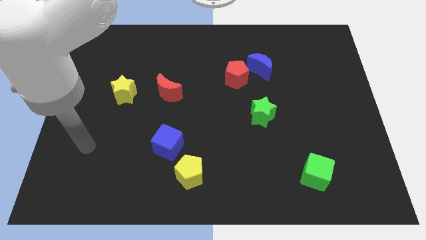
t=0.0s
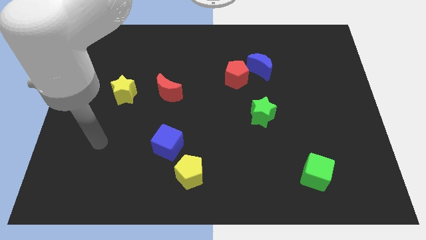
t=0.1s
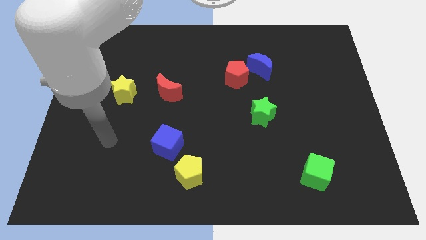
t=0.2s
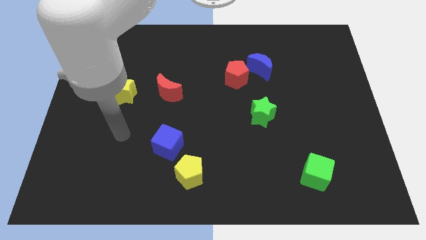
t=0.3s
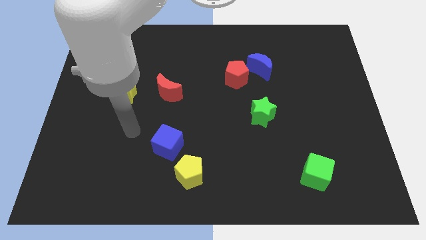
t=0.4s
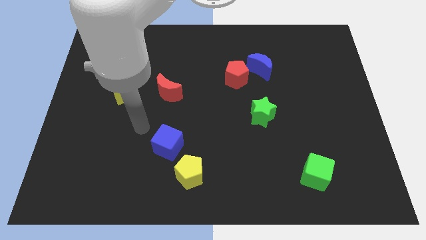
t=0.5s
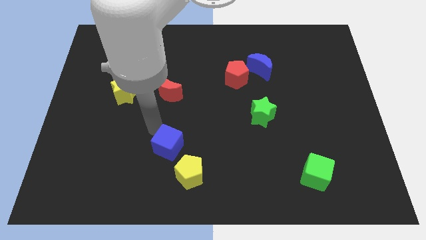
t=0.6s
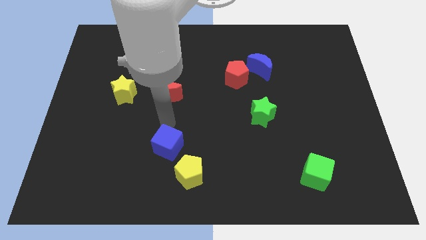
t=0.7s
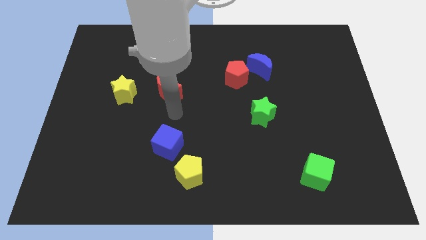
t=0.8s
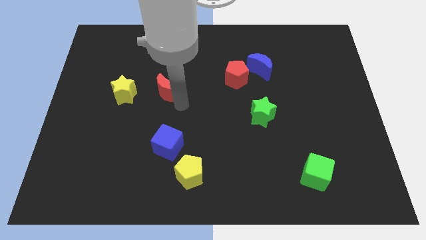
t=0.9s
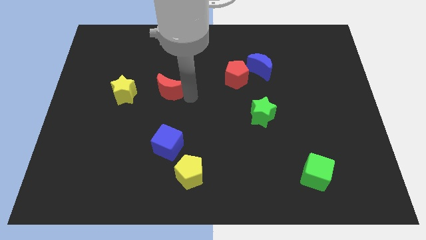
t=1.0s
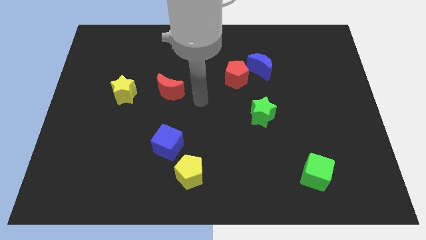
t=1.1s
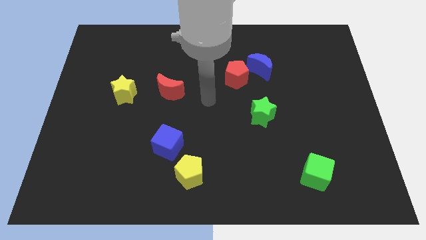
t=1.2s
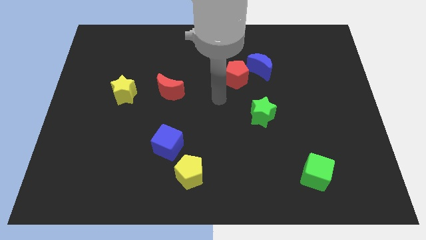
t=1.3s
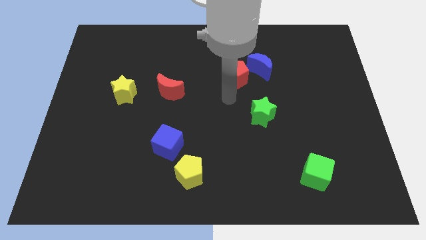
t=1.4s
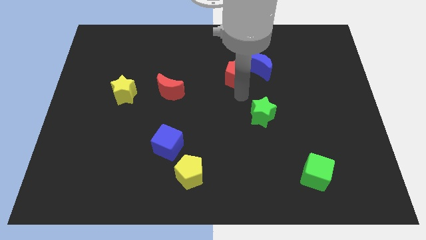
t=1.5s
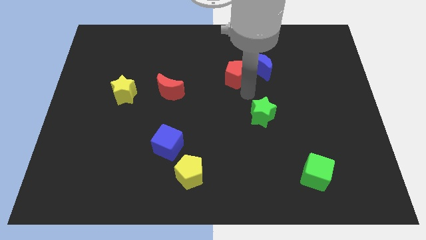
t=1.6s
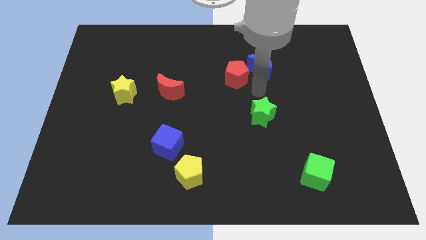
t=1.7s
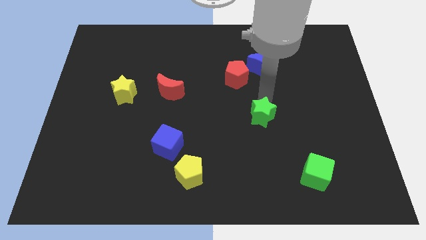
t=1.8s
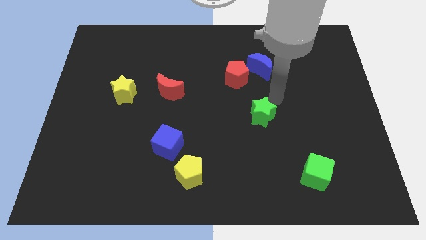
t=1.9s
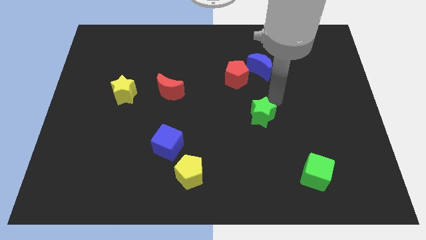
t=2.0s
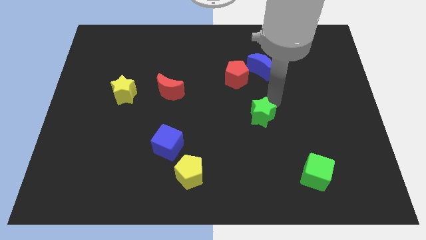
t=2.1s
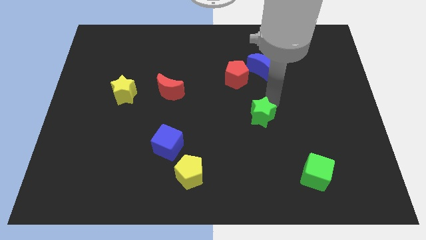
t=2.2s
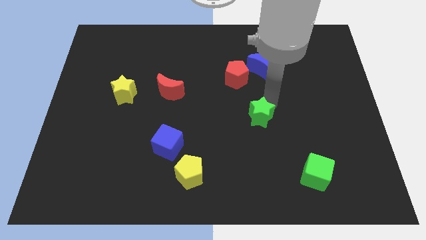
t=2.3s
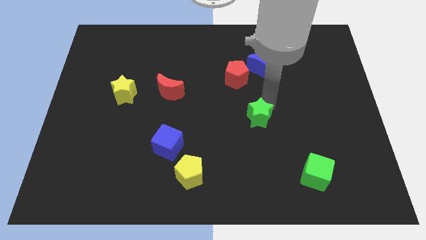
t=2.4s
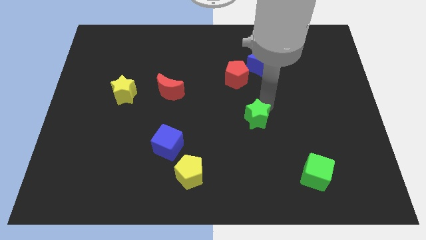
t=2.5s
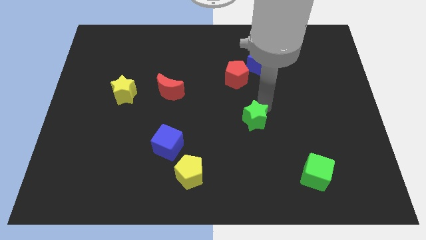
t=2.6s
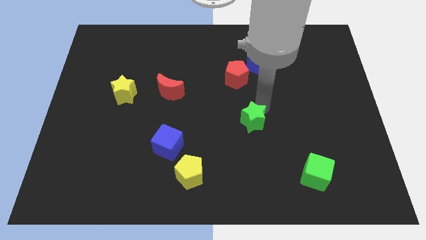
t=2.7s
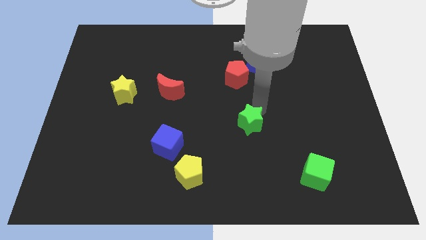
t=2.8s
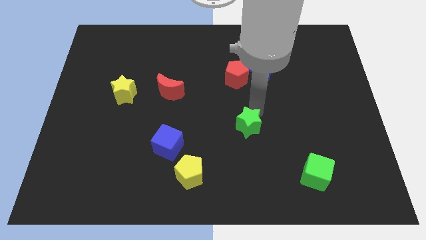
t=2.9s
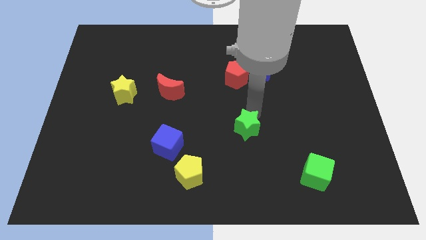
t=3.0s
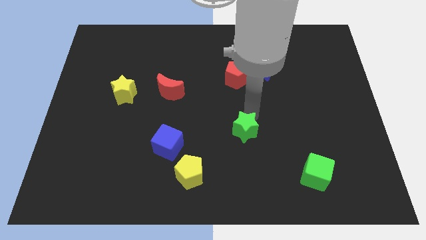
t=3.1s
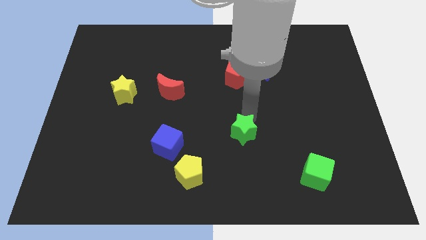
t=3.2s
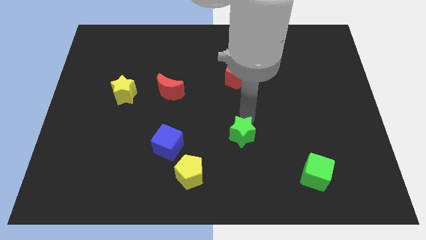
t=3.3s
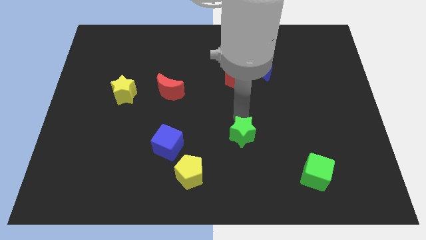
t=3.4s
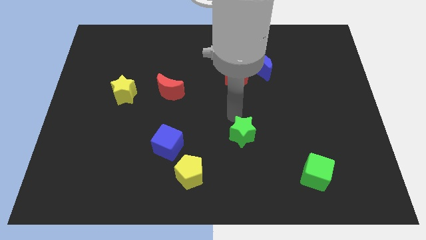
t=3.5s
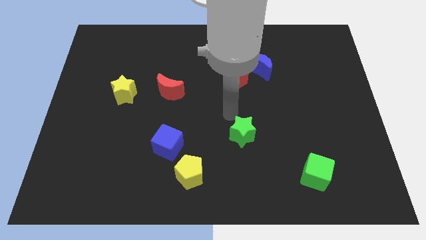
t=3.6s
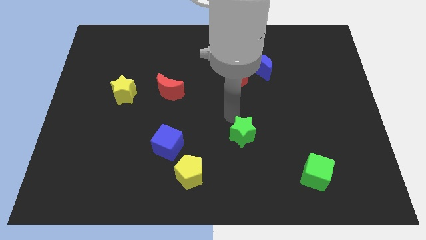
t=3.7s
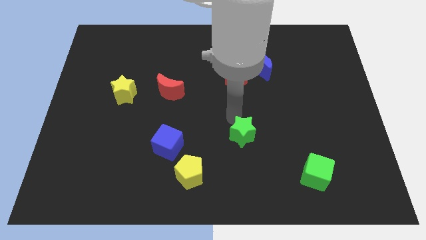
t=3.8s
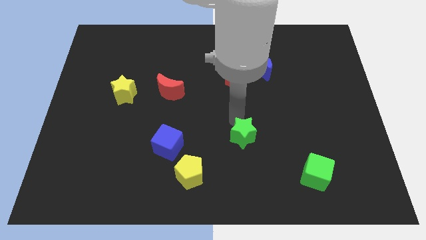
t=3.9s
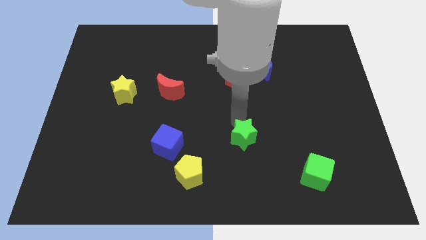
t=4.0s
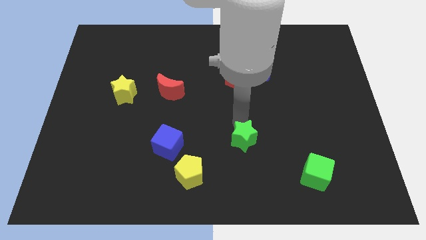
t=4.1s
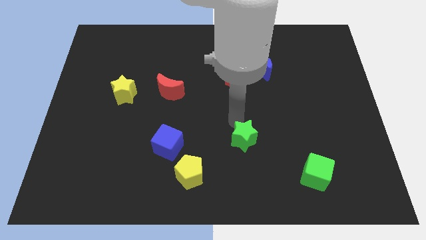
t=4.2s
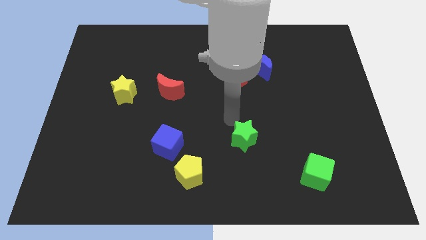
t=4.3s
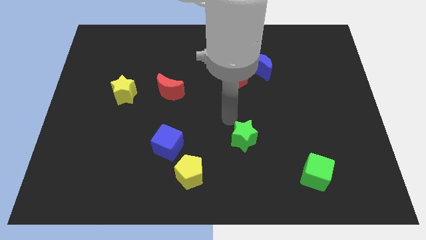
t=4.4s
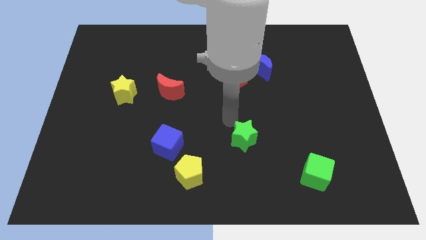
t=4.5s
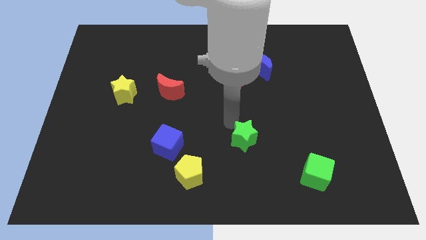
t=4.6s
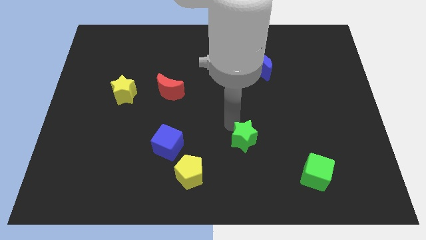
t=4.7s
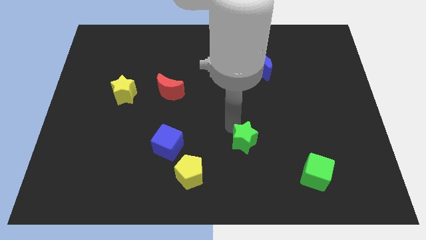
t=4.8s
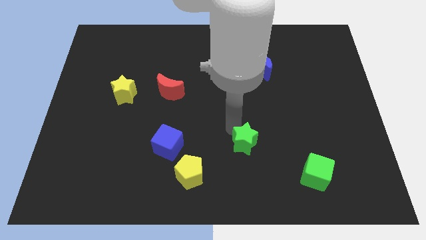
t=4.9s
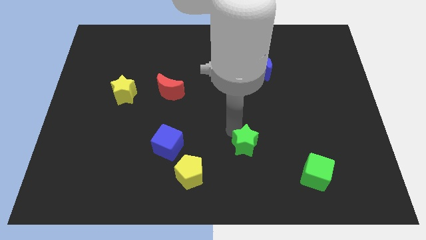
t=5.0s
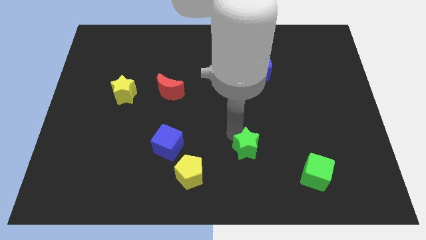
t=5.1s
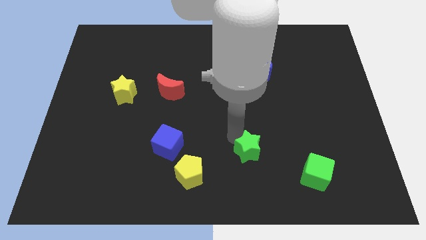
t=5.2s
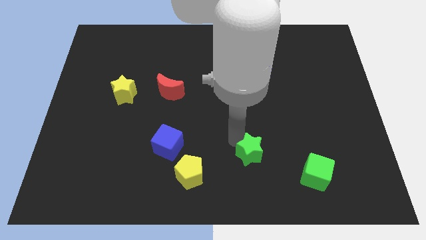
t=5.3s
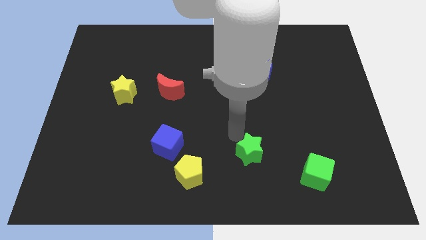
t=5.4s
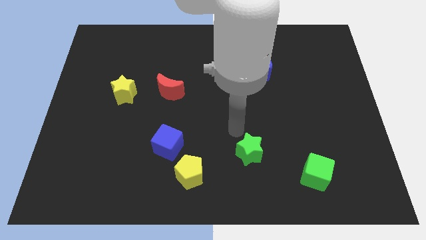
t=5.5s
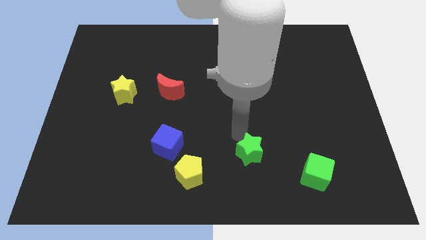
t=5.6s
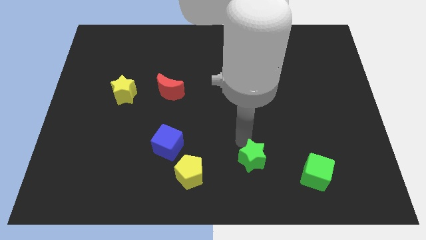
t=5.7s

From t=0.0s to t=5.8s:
put the green star to the left side of the green cube

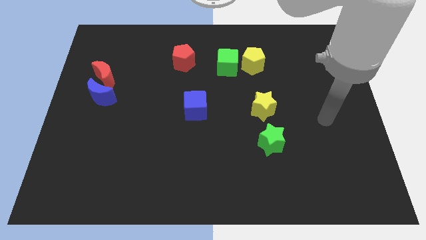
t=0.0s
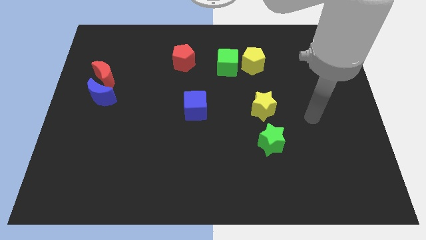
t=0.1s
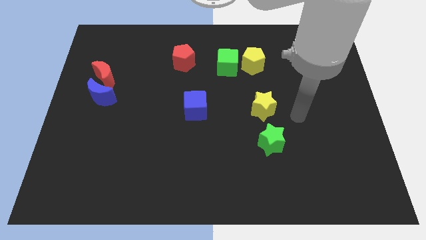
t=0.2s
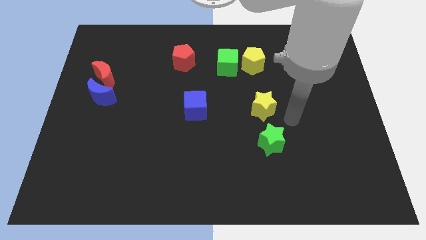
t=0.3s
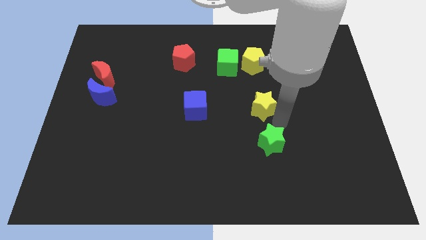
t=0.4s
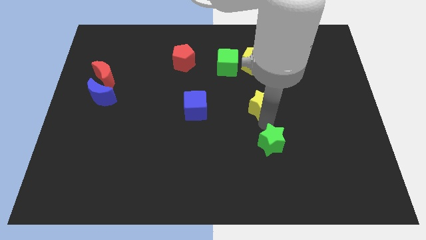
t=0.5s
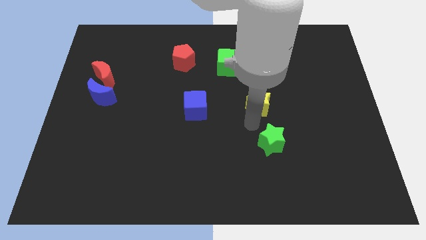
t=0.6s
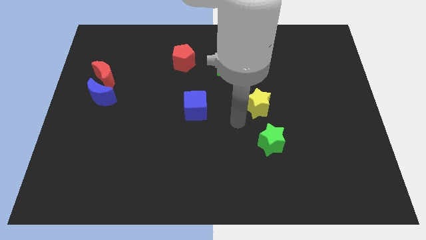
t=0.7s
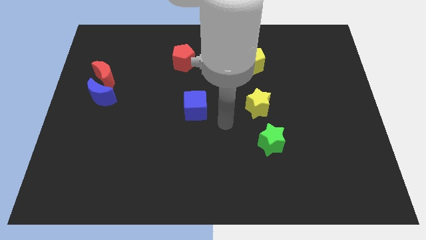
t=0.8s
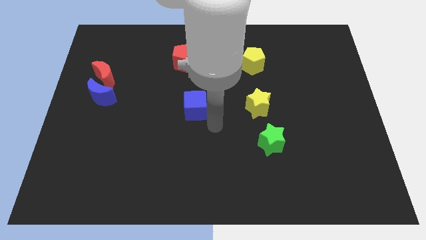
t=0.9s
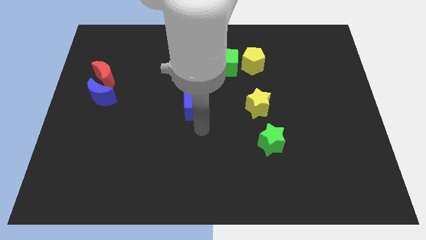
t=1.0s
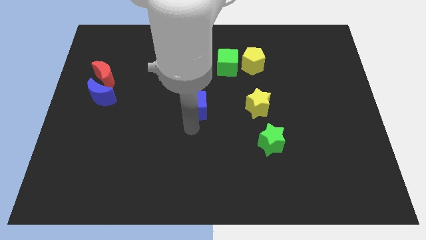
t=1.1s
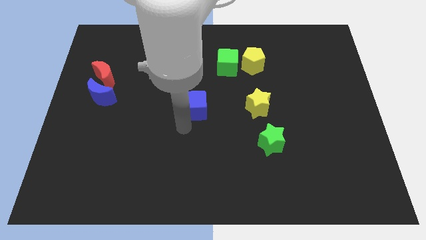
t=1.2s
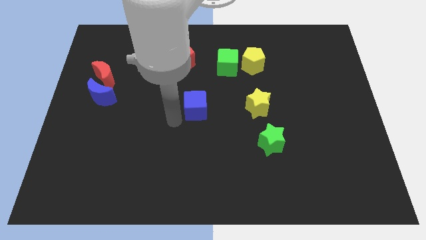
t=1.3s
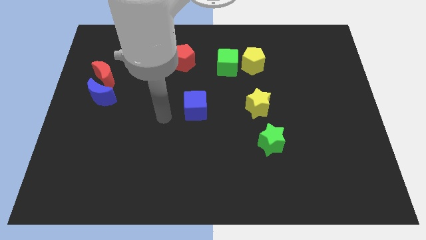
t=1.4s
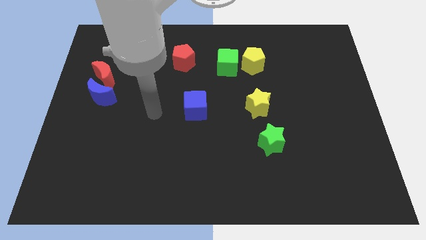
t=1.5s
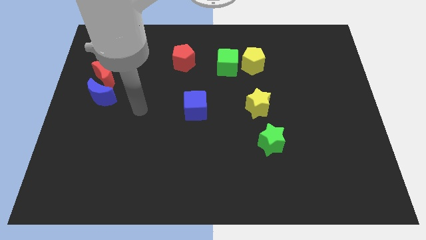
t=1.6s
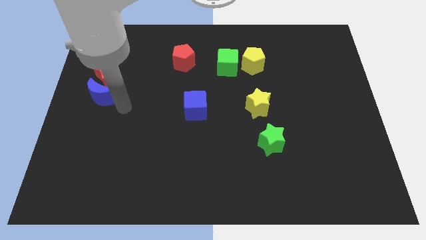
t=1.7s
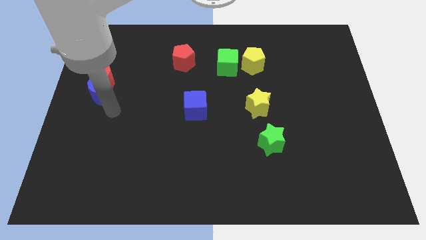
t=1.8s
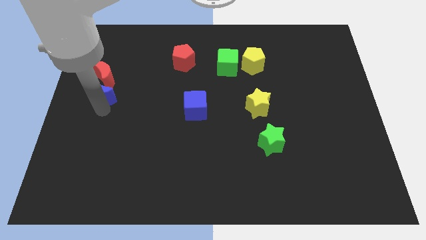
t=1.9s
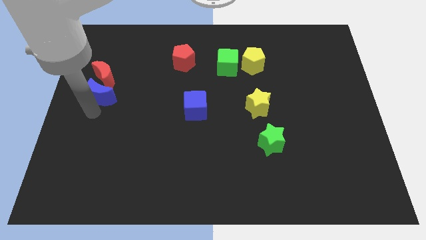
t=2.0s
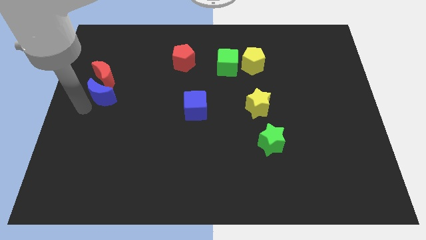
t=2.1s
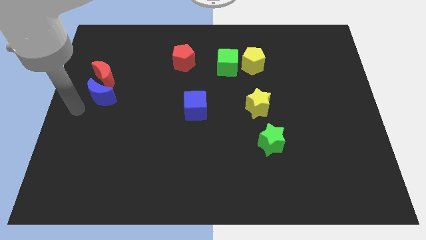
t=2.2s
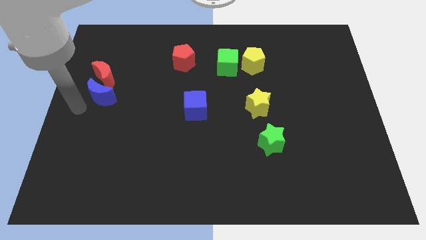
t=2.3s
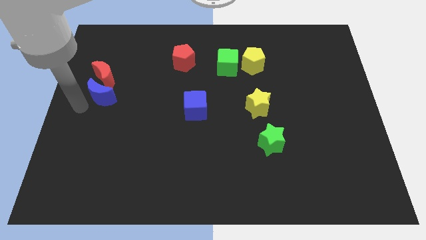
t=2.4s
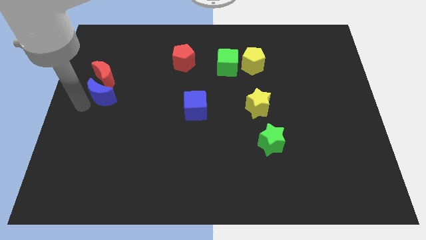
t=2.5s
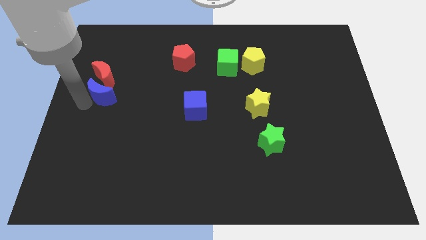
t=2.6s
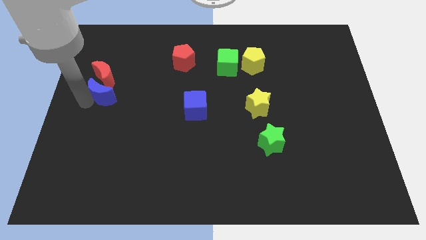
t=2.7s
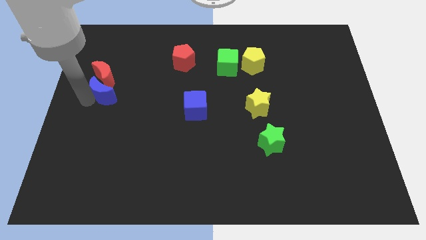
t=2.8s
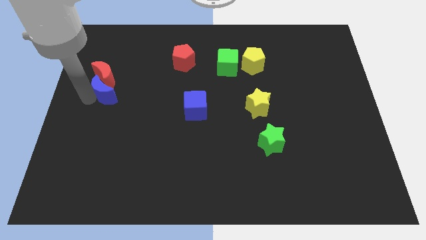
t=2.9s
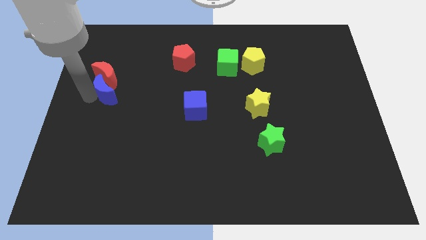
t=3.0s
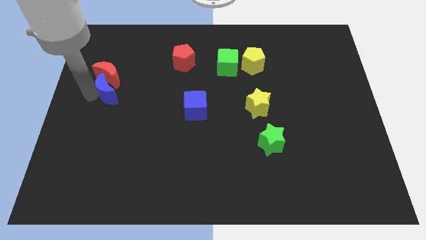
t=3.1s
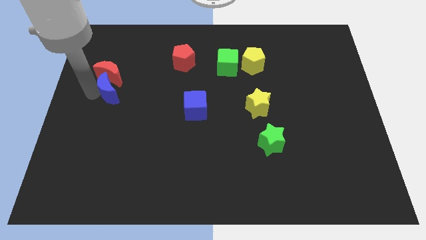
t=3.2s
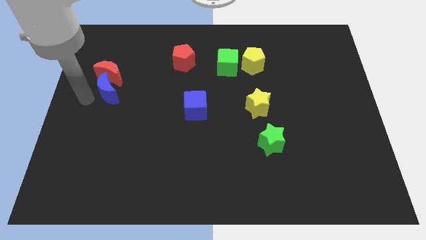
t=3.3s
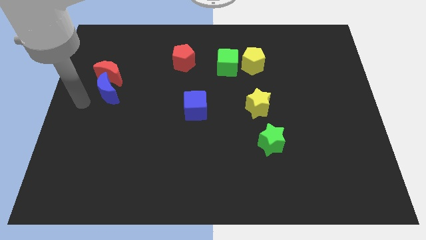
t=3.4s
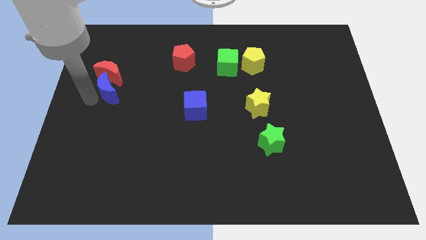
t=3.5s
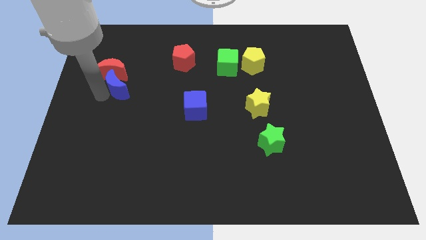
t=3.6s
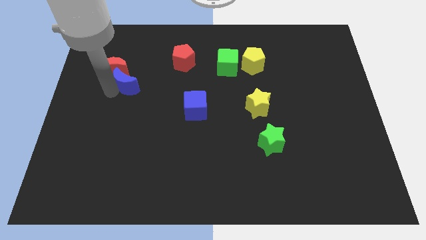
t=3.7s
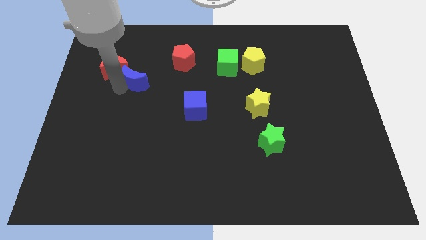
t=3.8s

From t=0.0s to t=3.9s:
push the blue moon just right of the red moon
